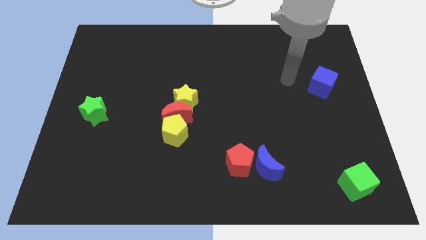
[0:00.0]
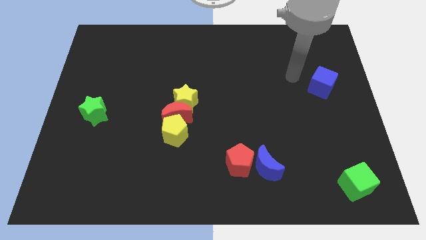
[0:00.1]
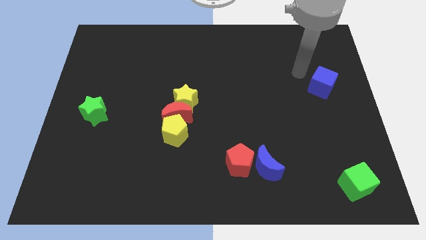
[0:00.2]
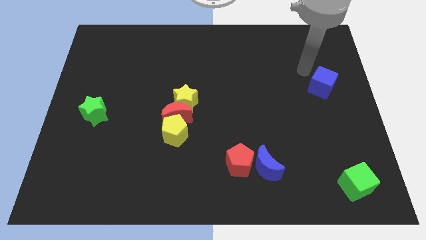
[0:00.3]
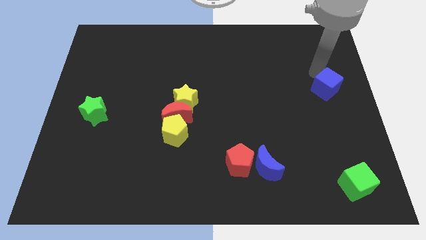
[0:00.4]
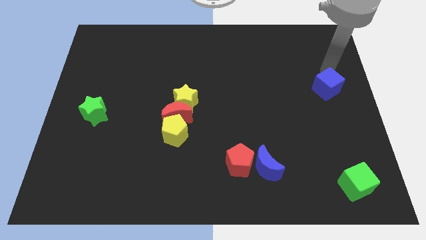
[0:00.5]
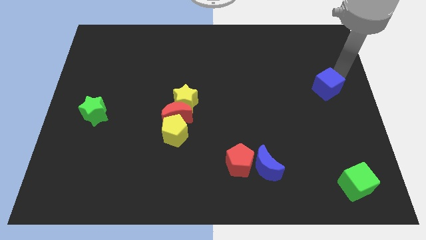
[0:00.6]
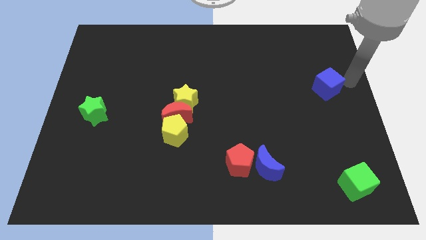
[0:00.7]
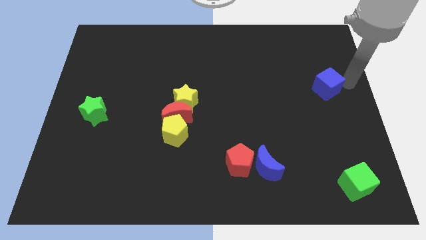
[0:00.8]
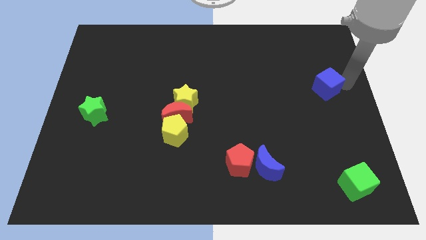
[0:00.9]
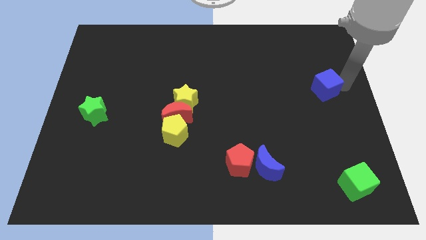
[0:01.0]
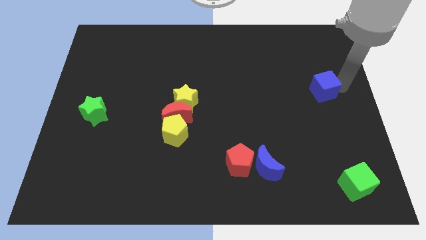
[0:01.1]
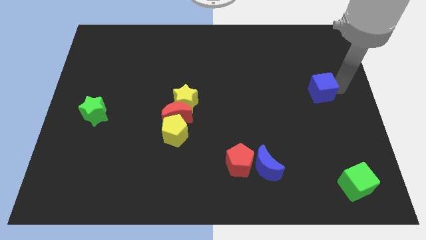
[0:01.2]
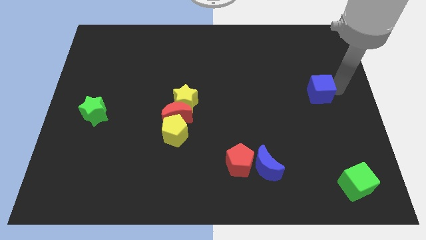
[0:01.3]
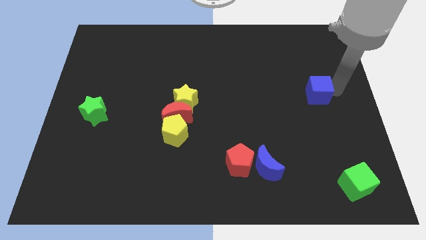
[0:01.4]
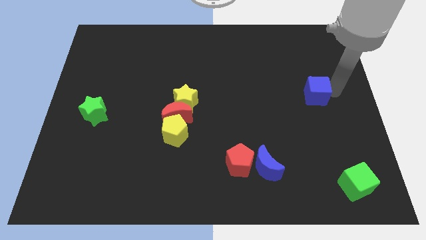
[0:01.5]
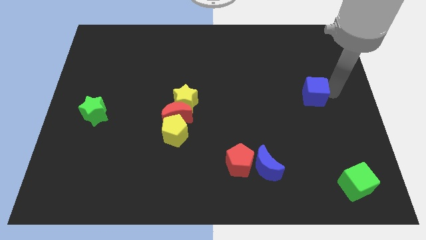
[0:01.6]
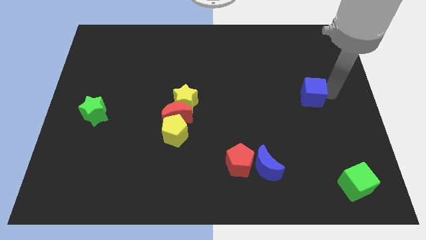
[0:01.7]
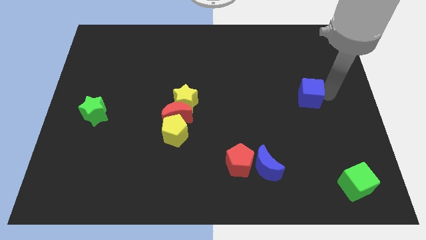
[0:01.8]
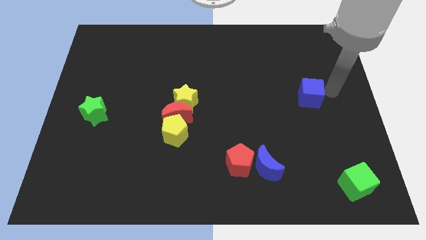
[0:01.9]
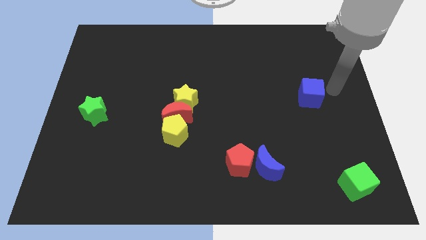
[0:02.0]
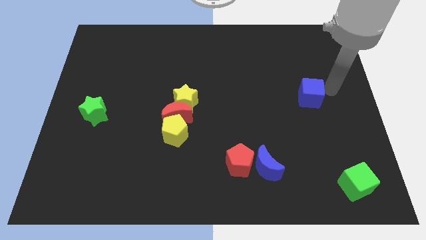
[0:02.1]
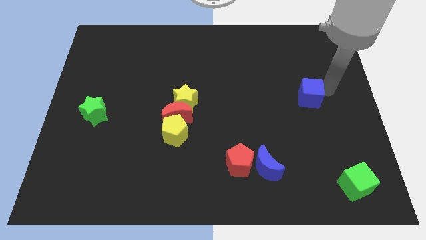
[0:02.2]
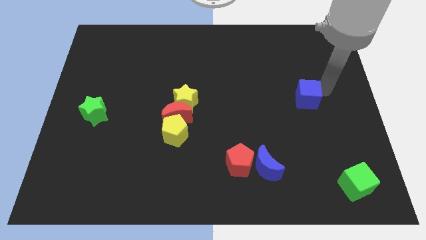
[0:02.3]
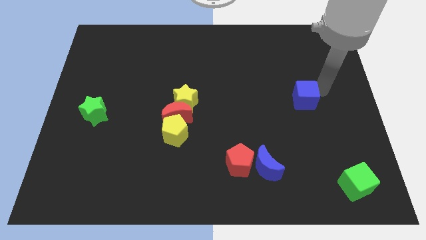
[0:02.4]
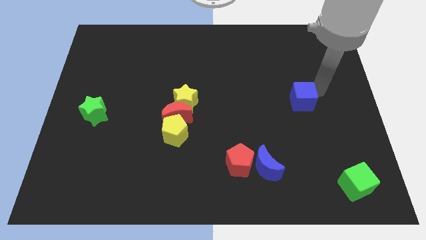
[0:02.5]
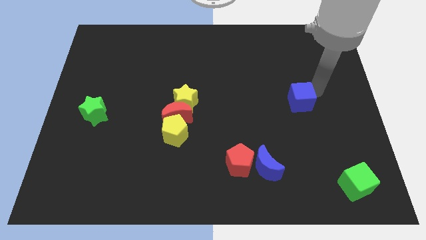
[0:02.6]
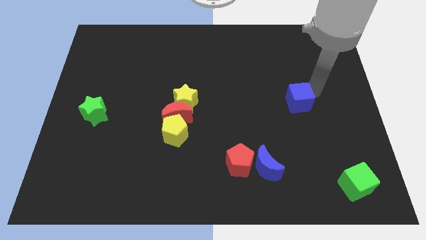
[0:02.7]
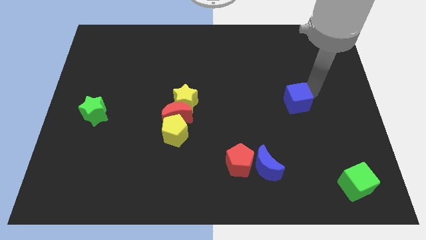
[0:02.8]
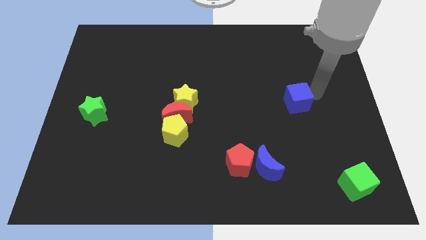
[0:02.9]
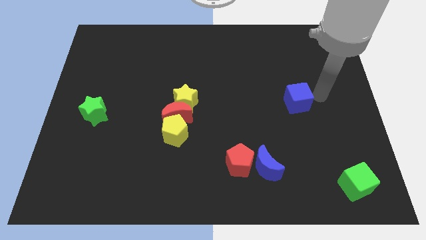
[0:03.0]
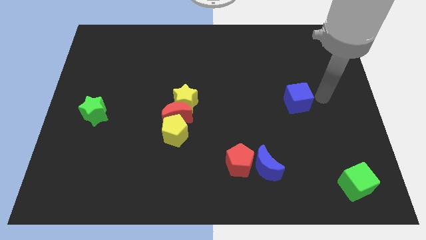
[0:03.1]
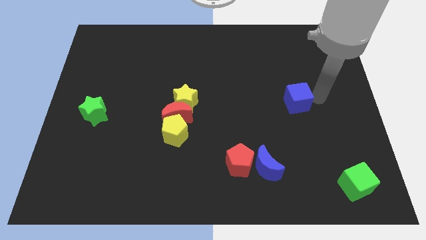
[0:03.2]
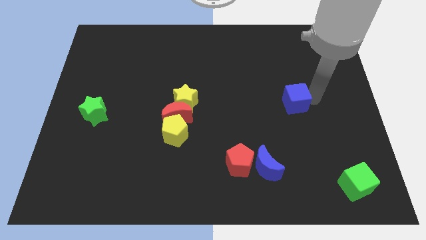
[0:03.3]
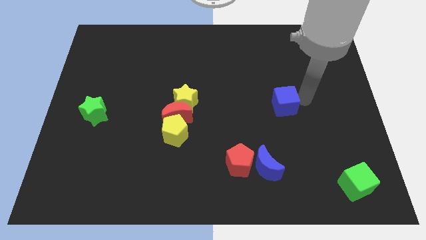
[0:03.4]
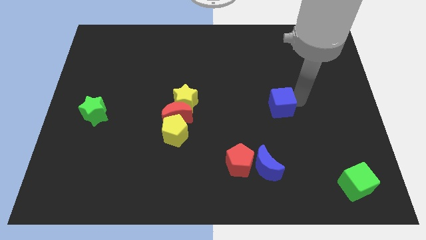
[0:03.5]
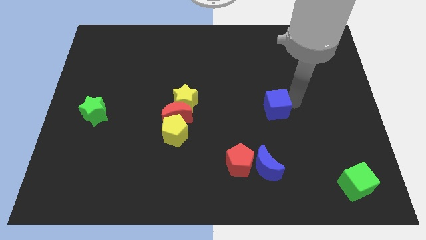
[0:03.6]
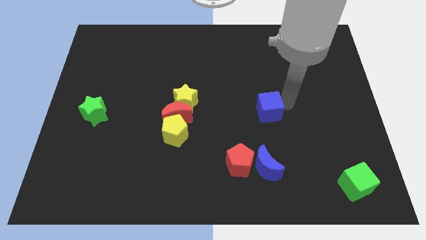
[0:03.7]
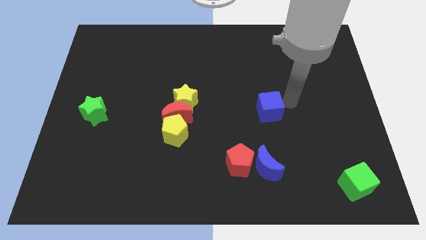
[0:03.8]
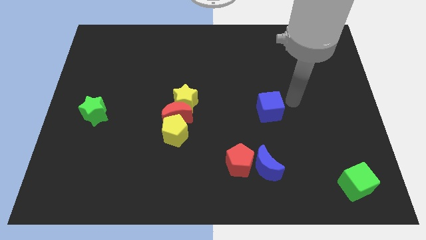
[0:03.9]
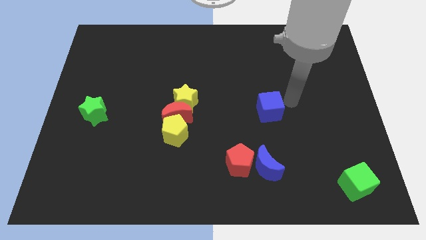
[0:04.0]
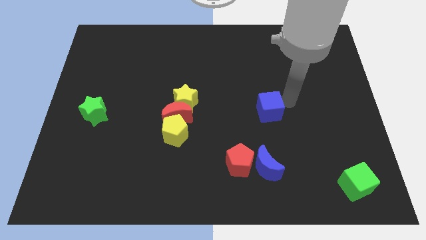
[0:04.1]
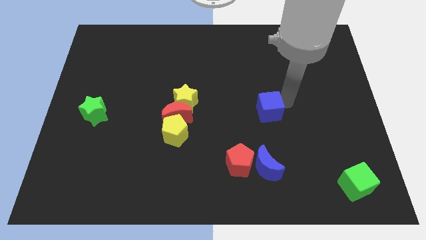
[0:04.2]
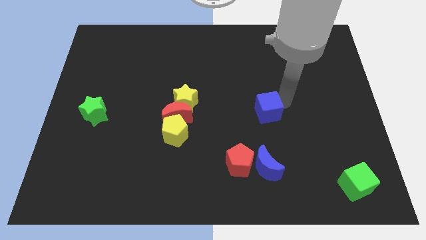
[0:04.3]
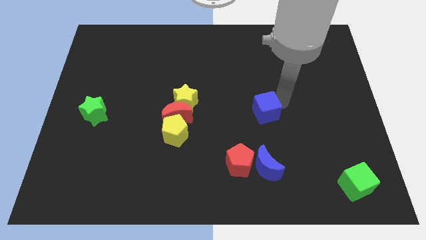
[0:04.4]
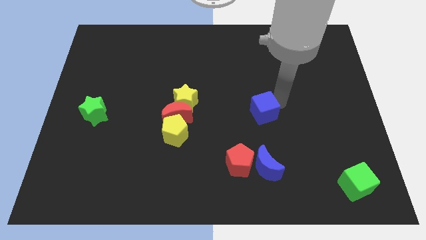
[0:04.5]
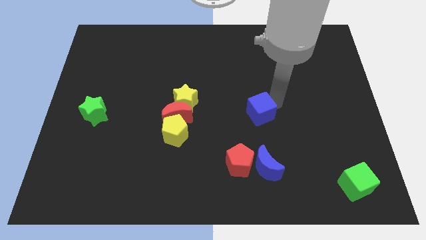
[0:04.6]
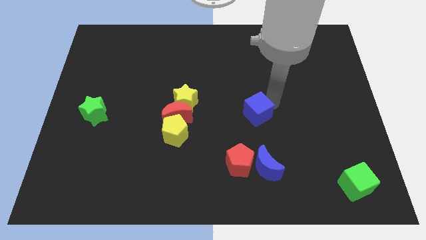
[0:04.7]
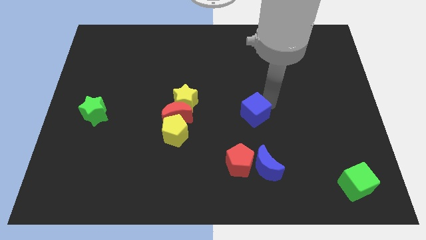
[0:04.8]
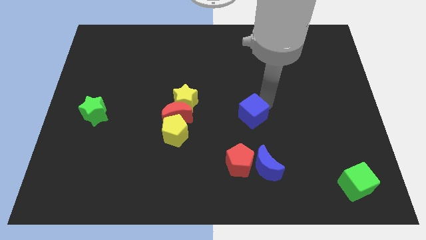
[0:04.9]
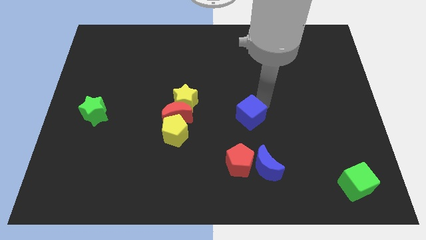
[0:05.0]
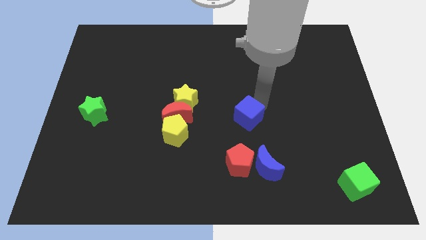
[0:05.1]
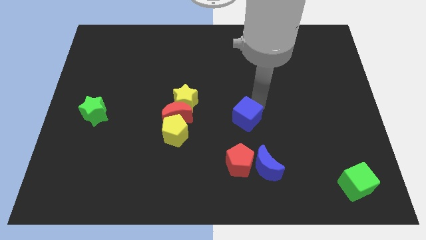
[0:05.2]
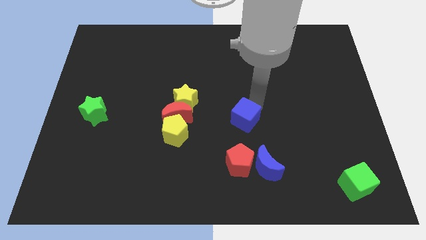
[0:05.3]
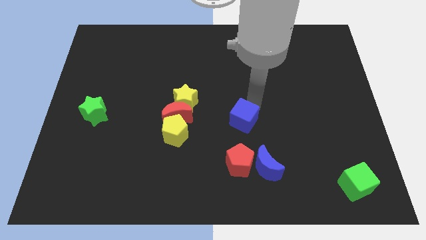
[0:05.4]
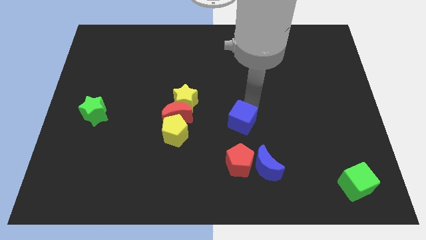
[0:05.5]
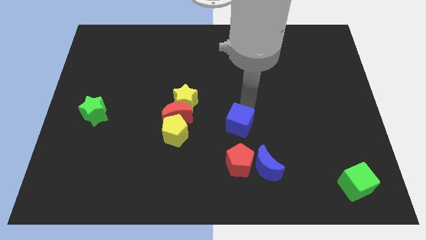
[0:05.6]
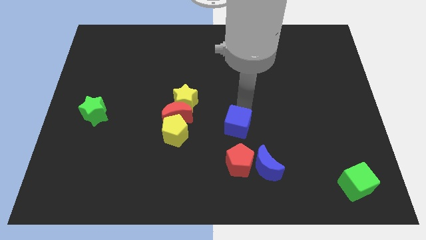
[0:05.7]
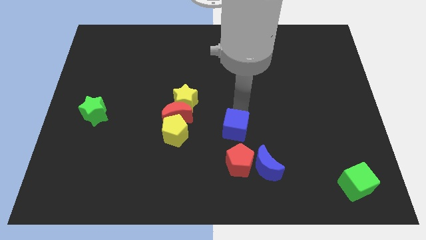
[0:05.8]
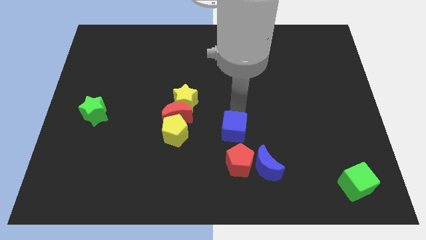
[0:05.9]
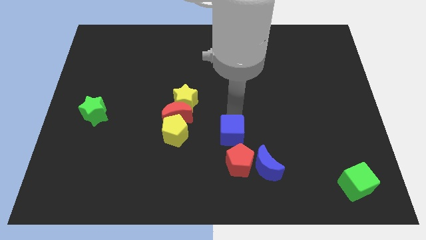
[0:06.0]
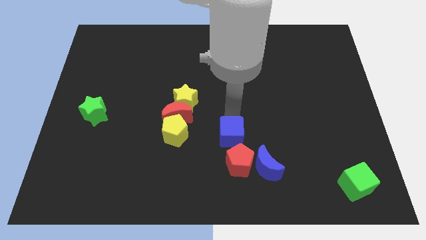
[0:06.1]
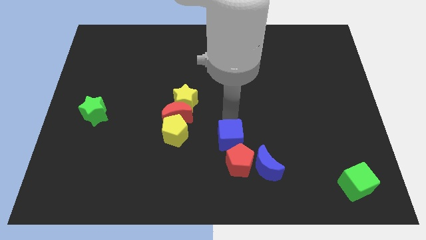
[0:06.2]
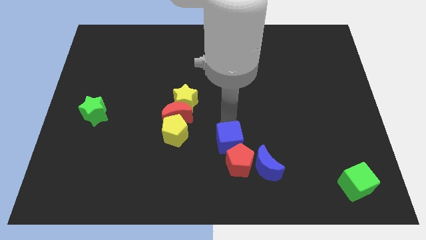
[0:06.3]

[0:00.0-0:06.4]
slide the blue cube close to the red pentagon

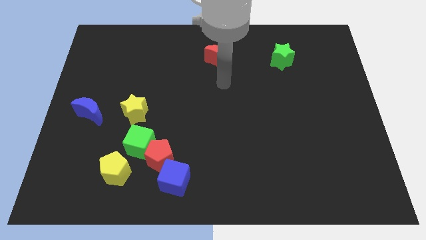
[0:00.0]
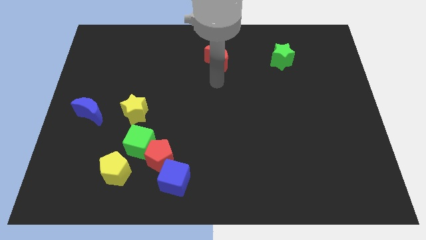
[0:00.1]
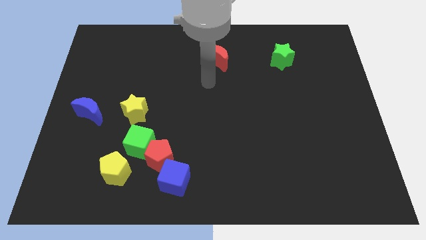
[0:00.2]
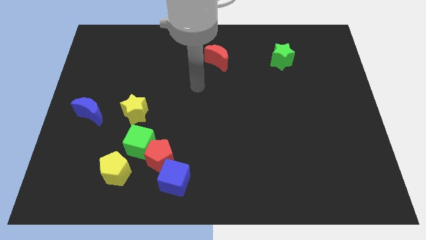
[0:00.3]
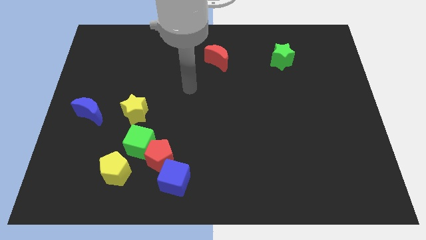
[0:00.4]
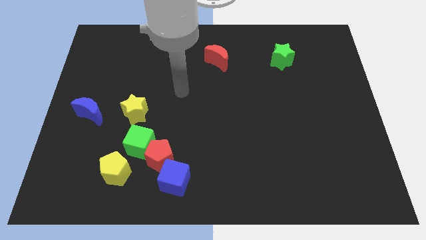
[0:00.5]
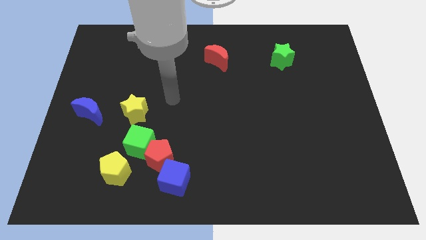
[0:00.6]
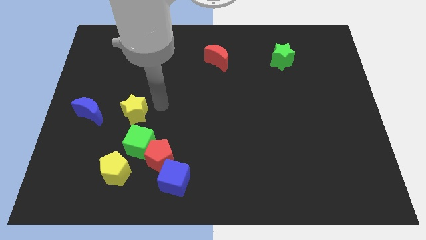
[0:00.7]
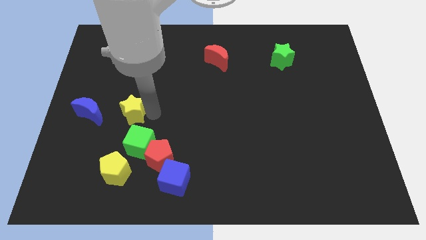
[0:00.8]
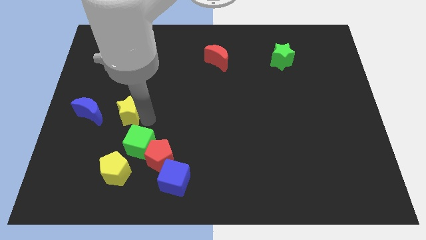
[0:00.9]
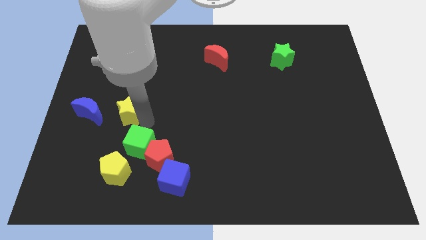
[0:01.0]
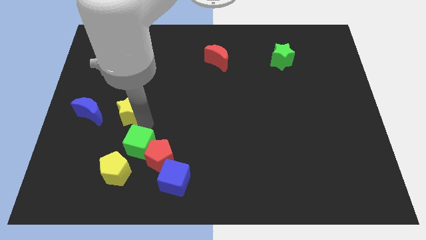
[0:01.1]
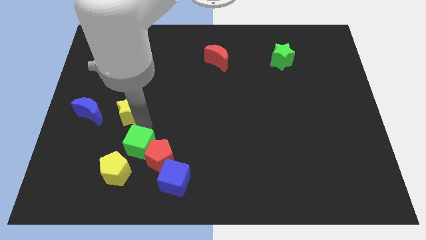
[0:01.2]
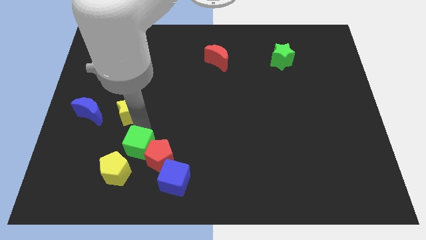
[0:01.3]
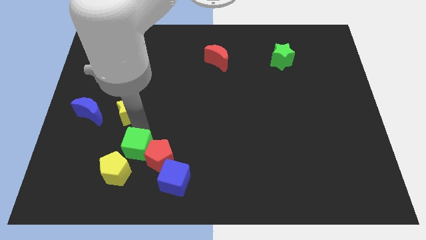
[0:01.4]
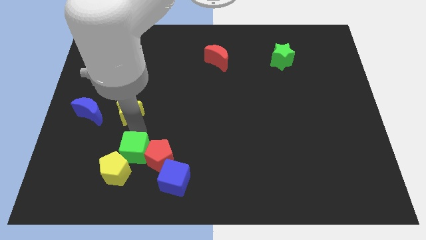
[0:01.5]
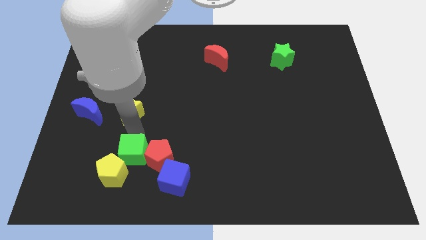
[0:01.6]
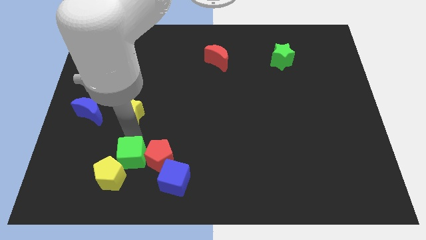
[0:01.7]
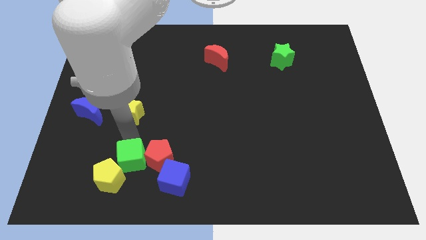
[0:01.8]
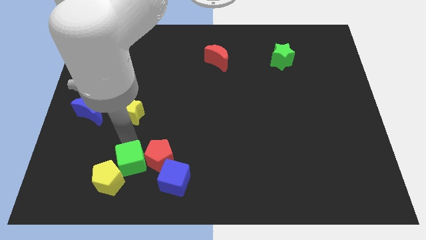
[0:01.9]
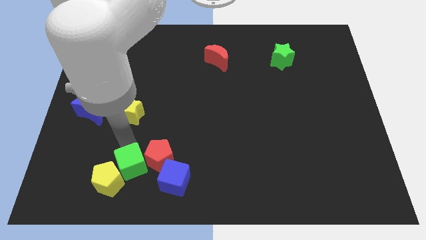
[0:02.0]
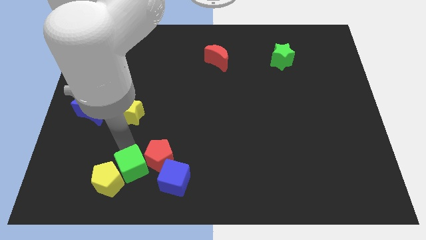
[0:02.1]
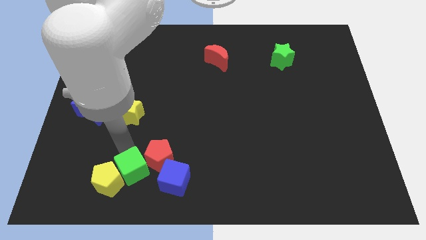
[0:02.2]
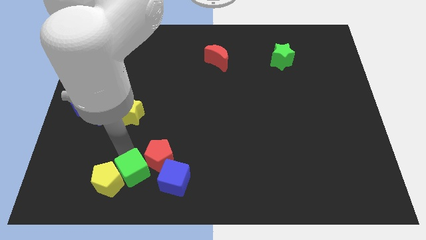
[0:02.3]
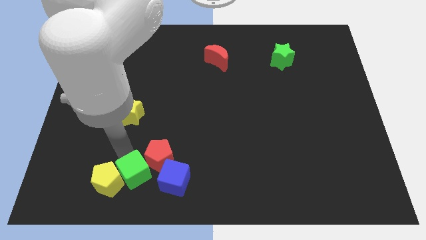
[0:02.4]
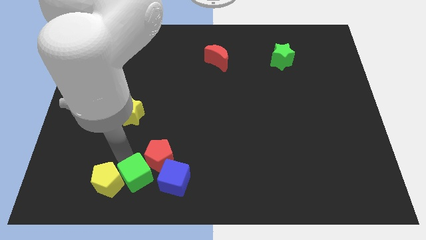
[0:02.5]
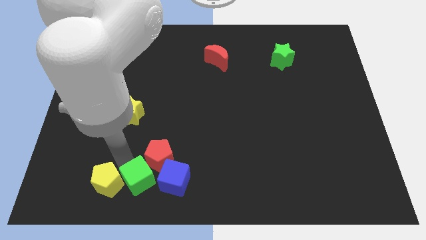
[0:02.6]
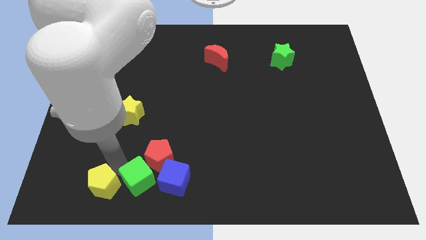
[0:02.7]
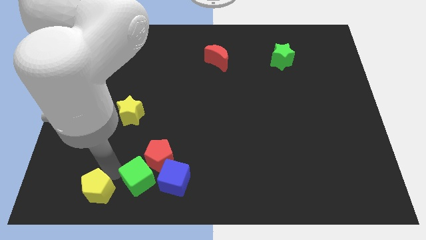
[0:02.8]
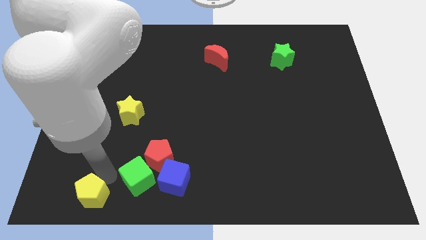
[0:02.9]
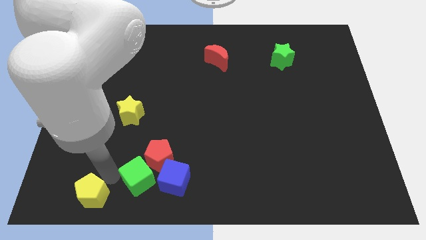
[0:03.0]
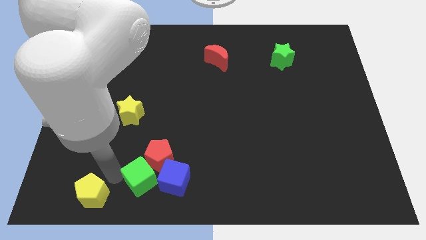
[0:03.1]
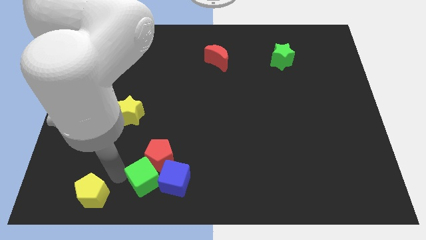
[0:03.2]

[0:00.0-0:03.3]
push the green cube close to the blue cube
